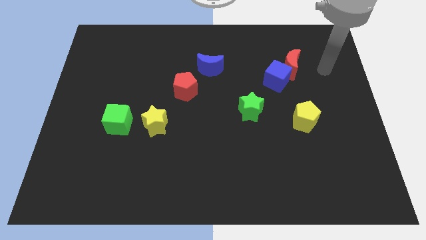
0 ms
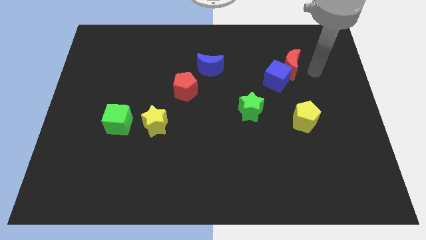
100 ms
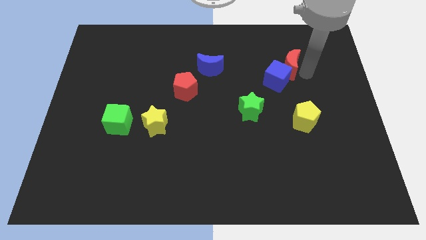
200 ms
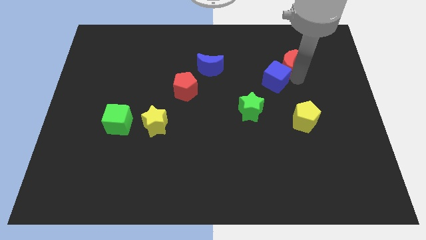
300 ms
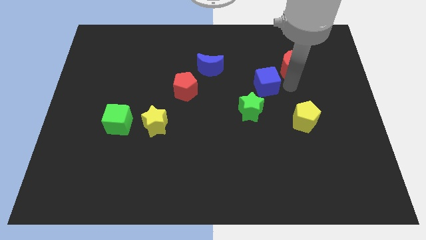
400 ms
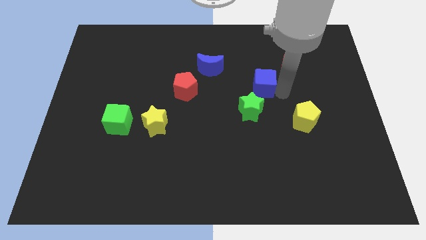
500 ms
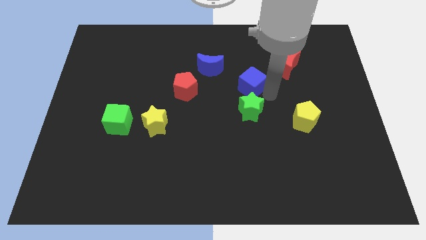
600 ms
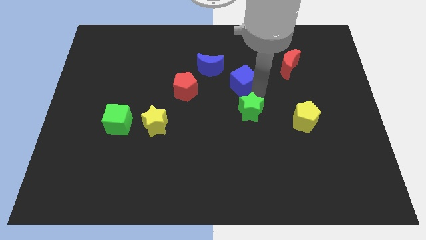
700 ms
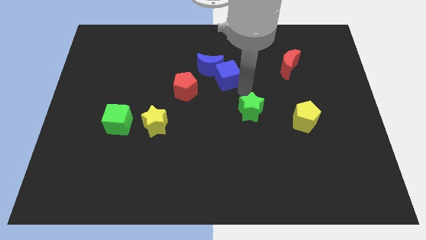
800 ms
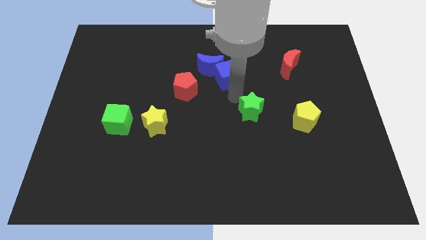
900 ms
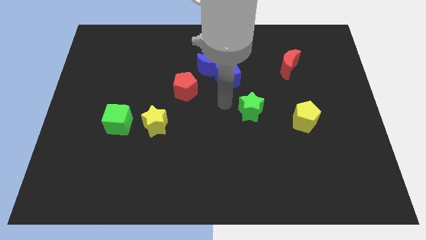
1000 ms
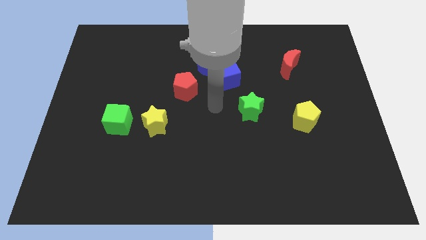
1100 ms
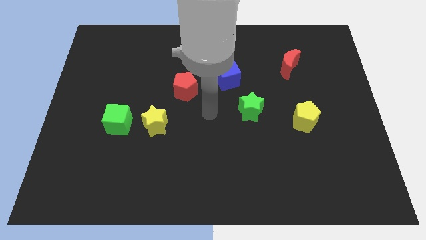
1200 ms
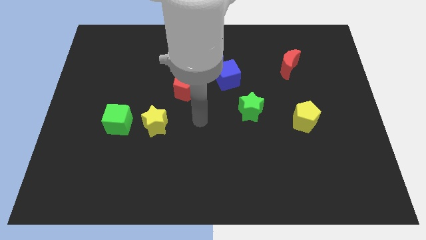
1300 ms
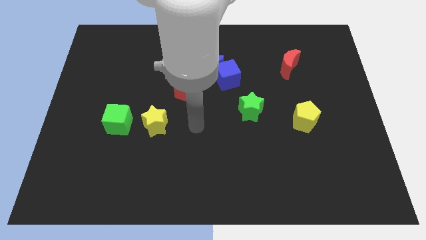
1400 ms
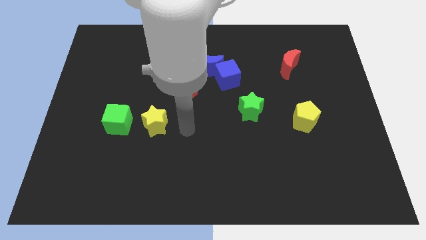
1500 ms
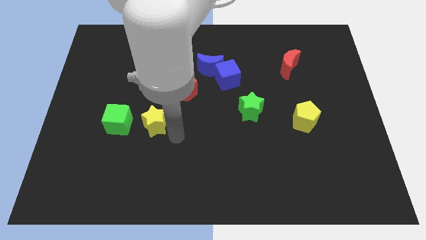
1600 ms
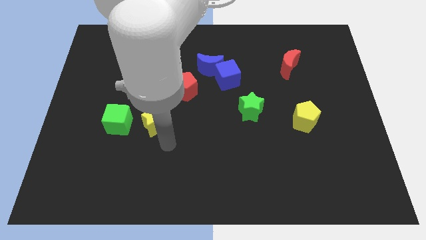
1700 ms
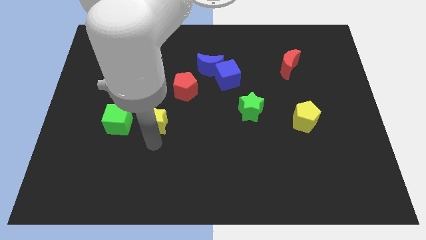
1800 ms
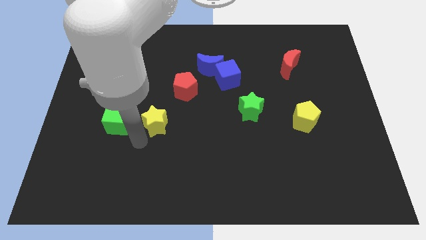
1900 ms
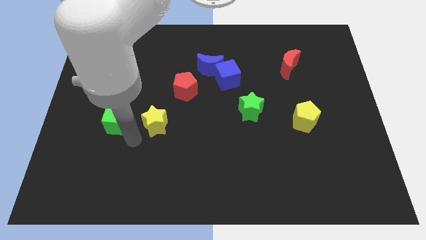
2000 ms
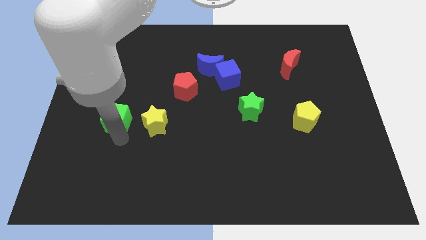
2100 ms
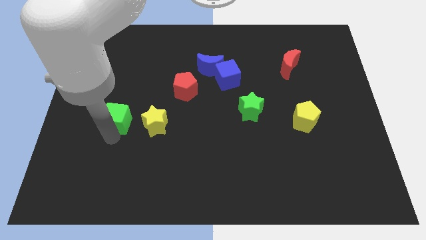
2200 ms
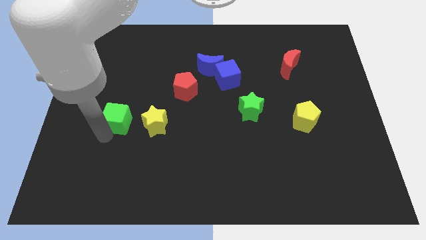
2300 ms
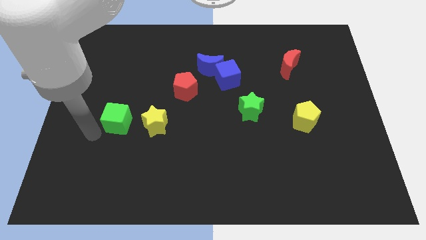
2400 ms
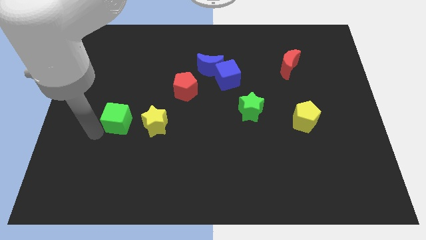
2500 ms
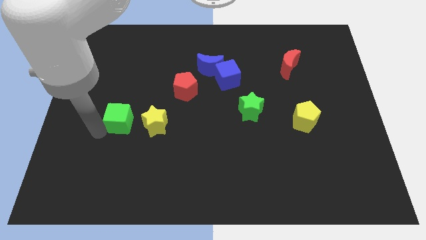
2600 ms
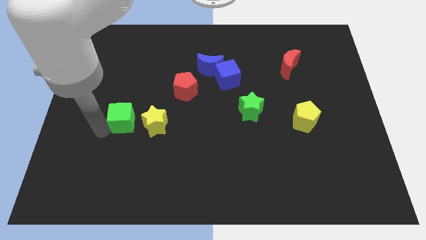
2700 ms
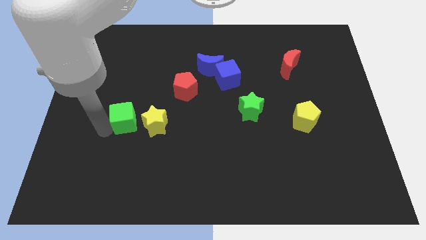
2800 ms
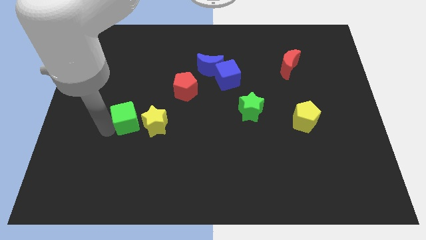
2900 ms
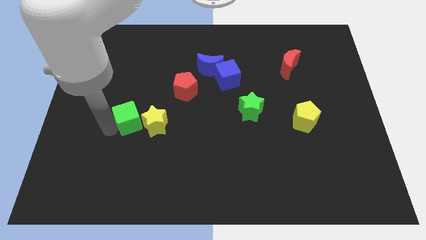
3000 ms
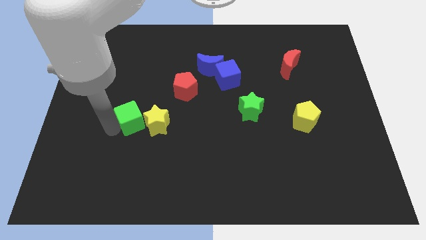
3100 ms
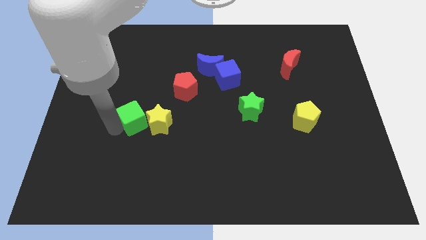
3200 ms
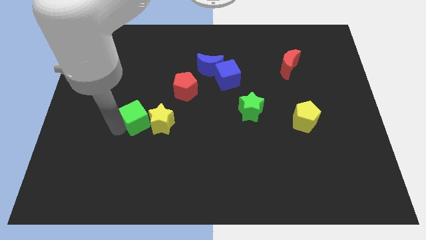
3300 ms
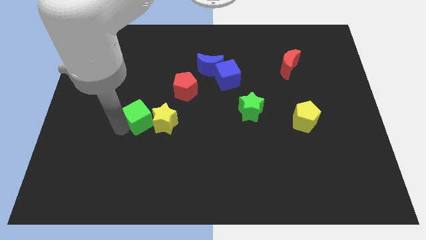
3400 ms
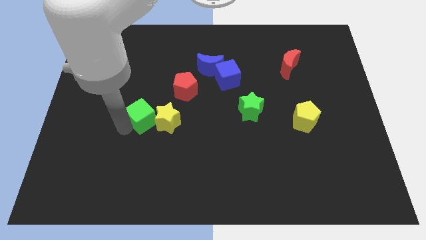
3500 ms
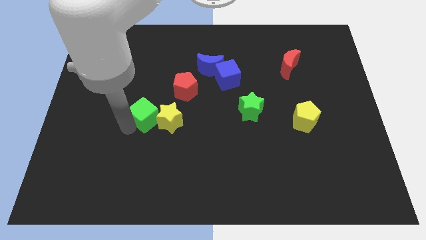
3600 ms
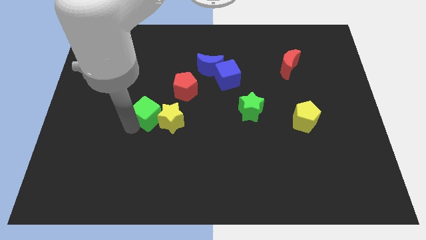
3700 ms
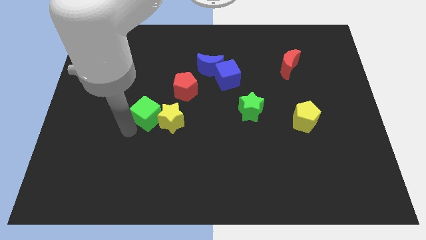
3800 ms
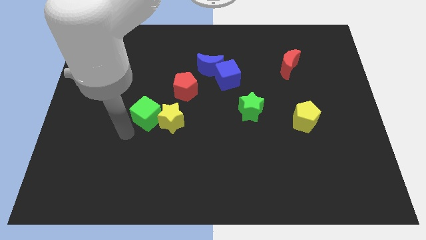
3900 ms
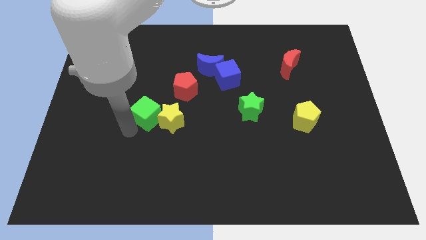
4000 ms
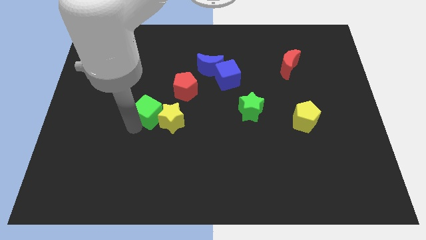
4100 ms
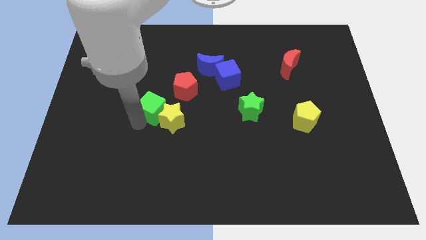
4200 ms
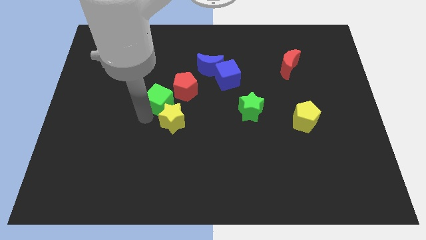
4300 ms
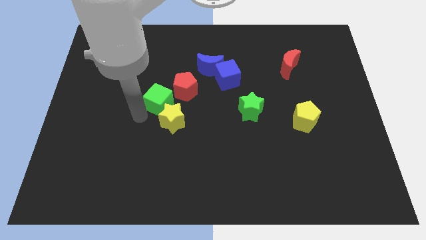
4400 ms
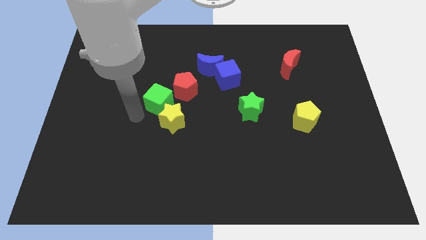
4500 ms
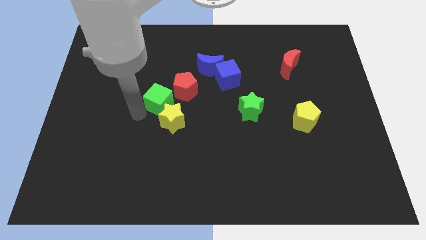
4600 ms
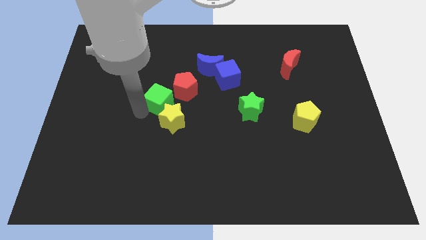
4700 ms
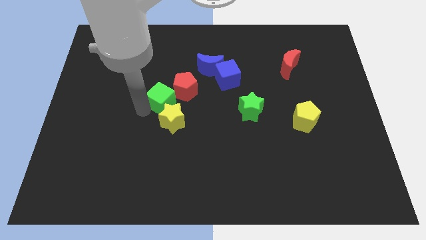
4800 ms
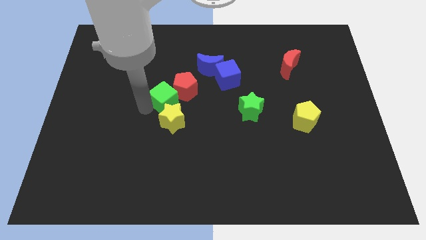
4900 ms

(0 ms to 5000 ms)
put the green cube next to the red pentagon

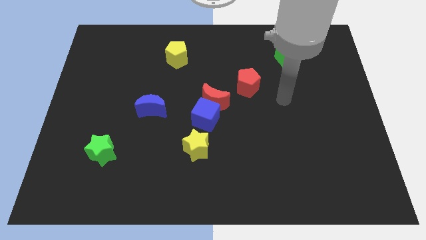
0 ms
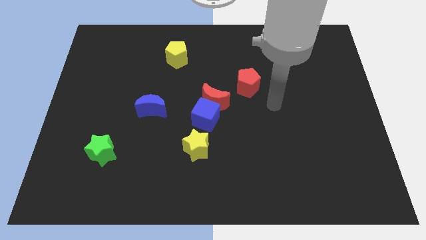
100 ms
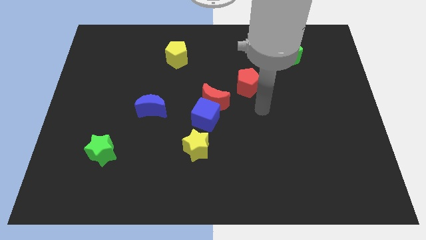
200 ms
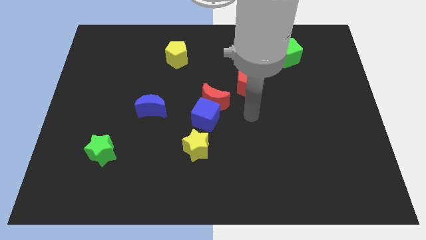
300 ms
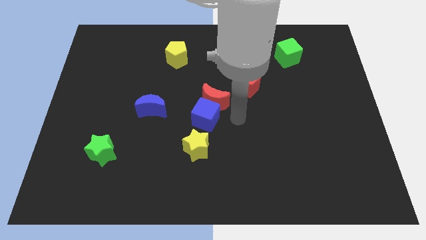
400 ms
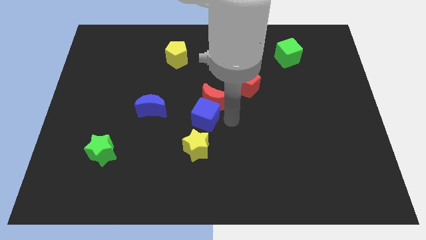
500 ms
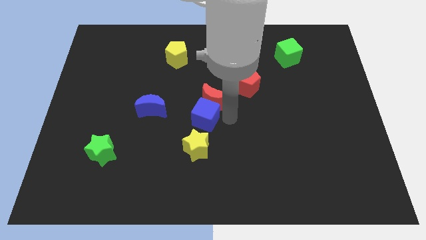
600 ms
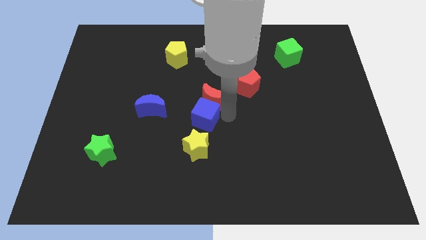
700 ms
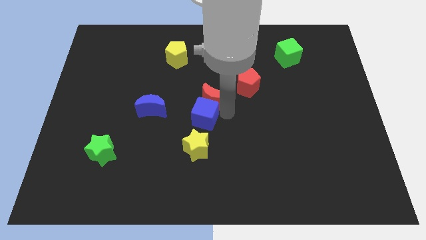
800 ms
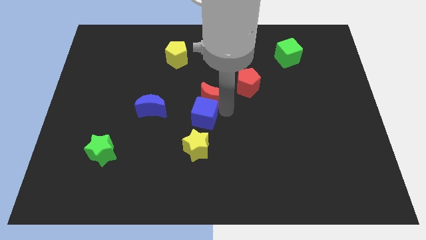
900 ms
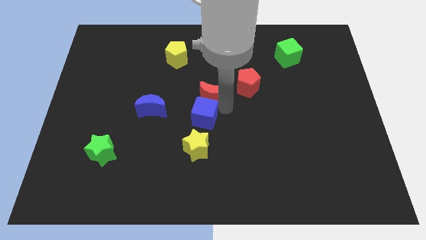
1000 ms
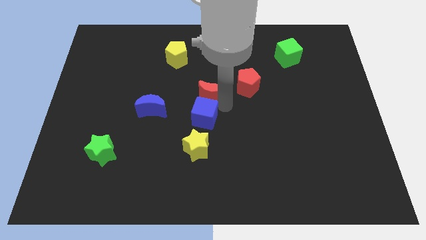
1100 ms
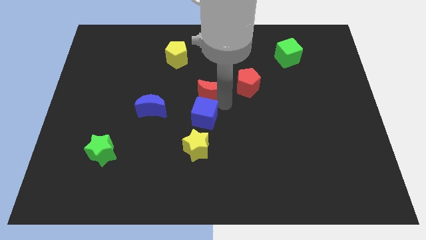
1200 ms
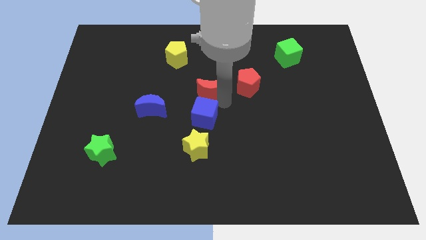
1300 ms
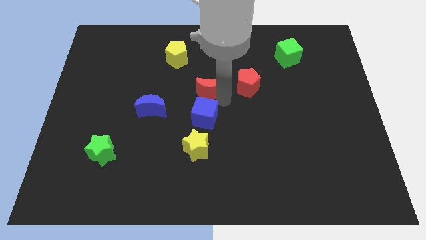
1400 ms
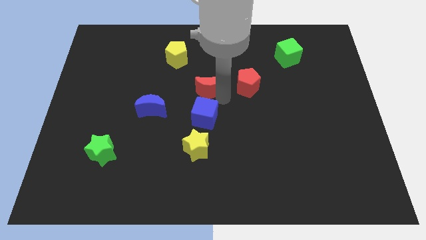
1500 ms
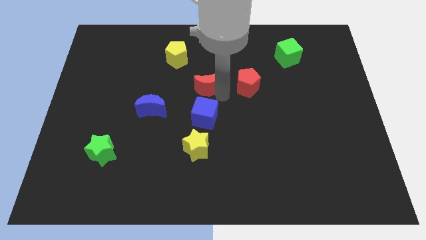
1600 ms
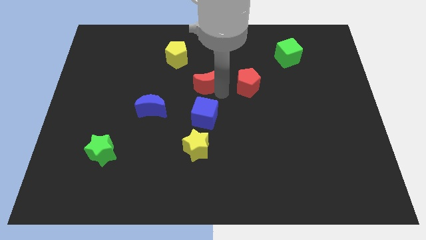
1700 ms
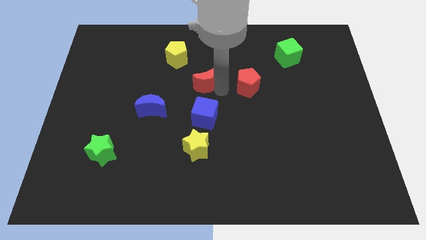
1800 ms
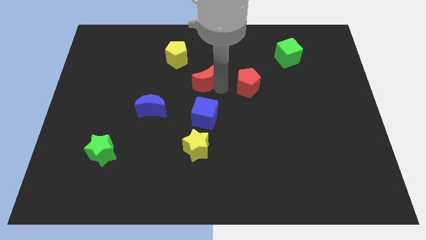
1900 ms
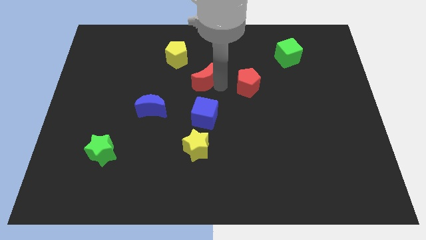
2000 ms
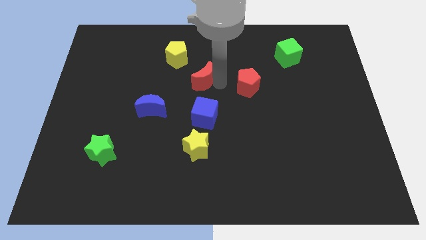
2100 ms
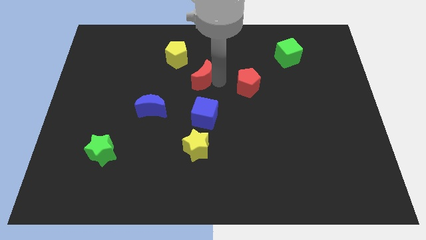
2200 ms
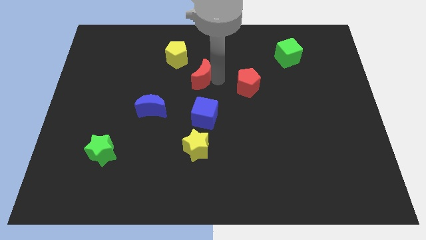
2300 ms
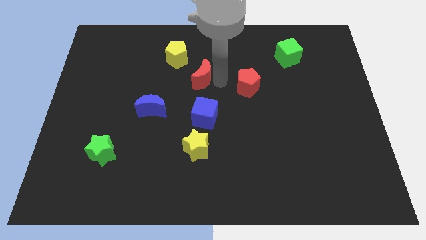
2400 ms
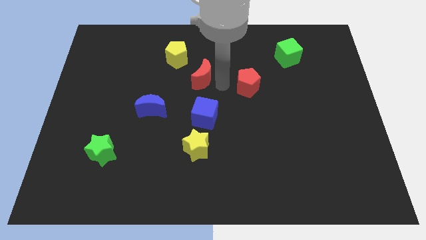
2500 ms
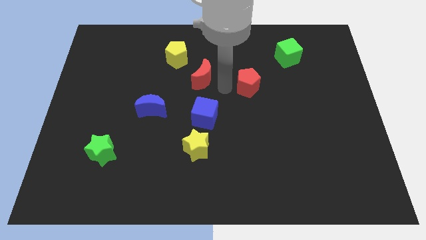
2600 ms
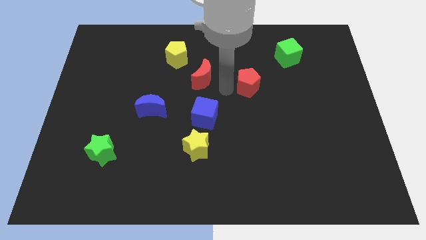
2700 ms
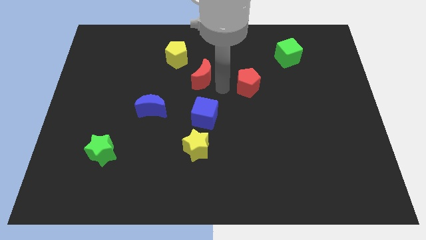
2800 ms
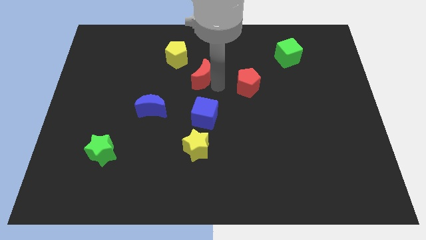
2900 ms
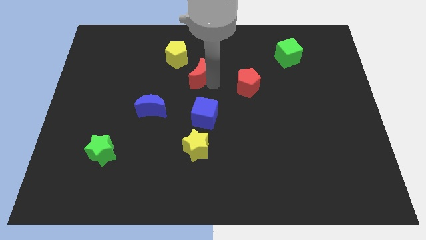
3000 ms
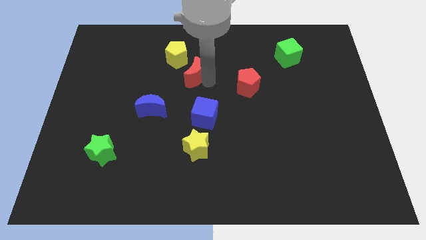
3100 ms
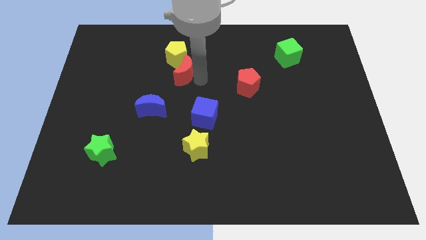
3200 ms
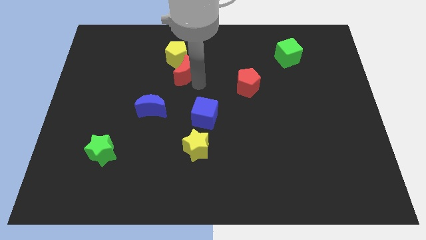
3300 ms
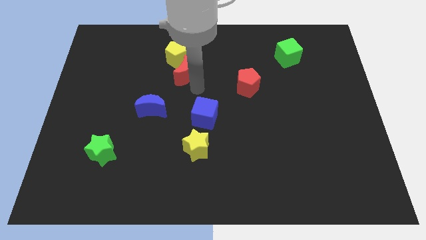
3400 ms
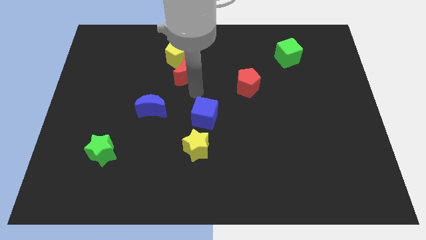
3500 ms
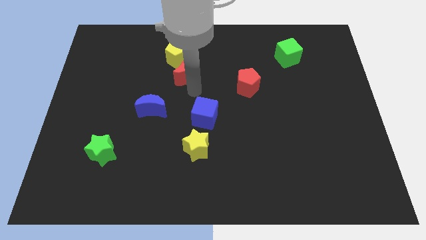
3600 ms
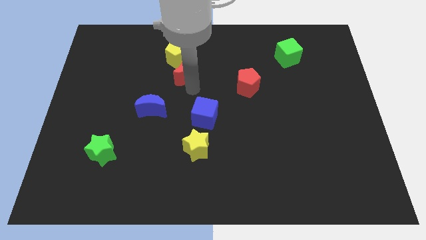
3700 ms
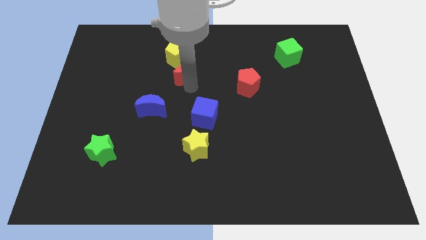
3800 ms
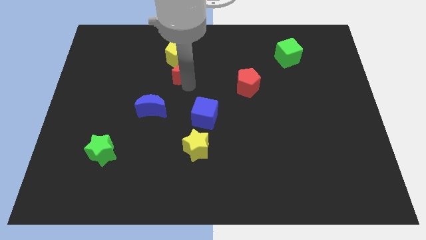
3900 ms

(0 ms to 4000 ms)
push the red moon towards the yellow pentagon
